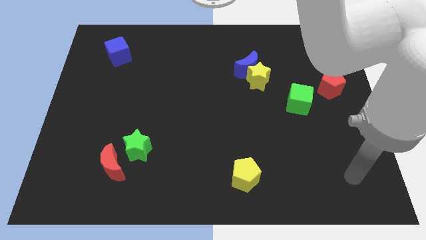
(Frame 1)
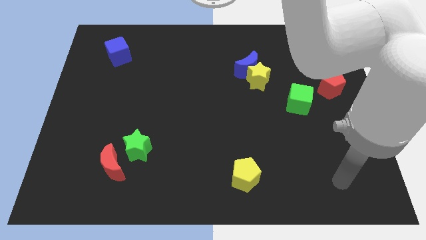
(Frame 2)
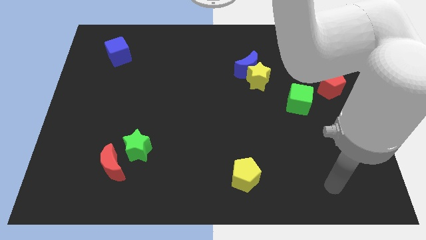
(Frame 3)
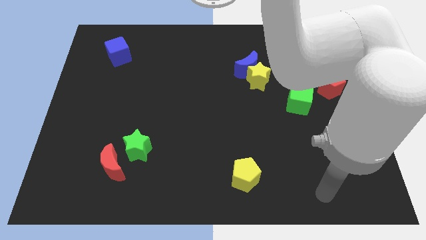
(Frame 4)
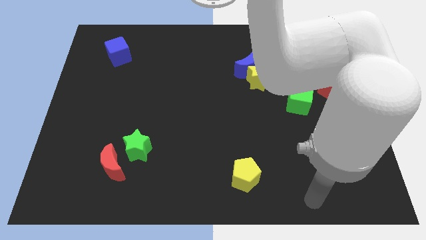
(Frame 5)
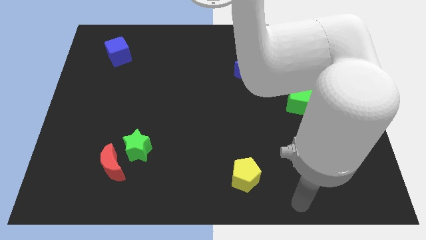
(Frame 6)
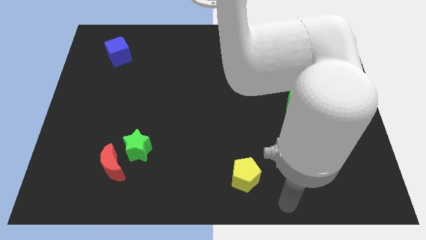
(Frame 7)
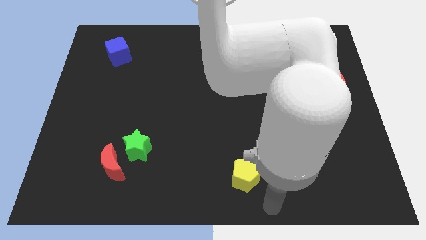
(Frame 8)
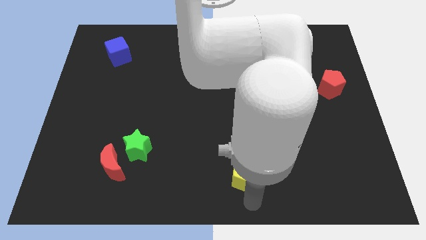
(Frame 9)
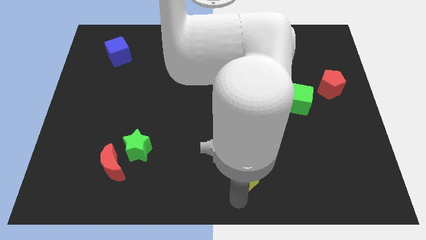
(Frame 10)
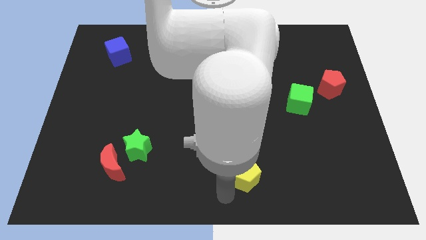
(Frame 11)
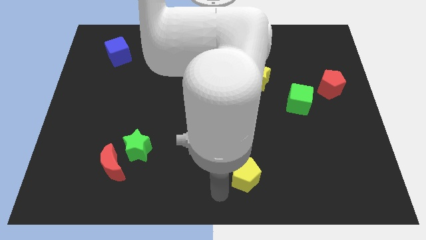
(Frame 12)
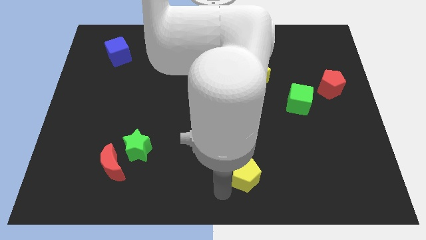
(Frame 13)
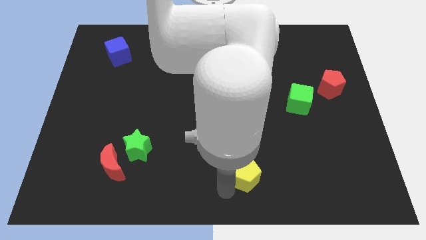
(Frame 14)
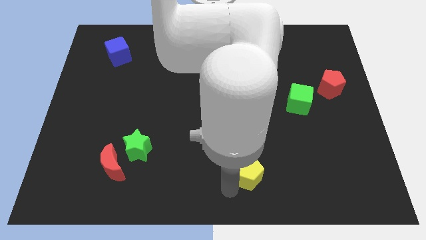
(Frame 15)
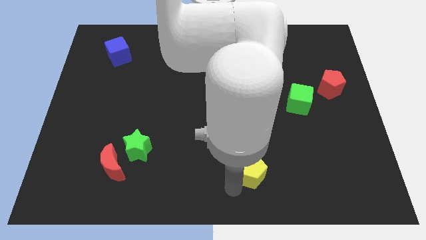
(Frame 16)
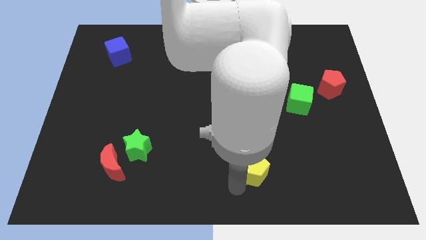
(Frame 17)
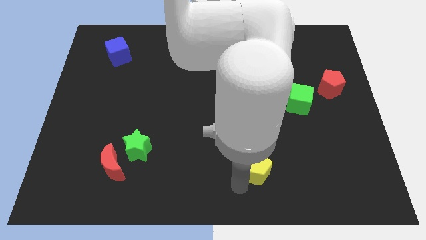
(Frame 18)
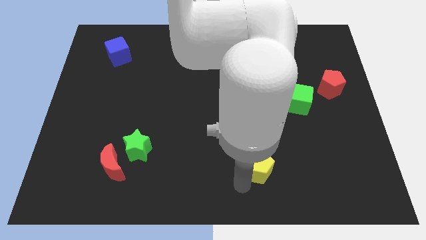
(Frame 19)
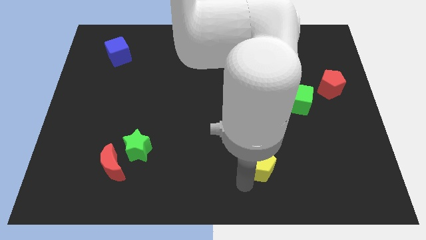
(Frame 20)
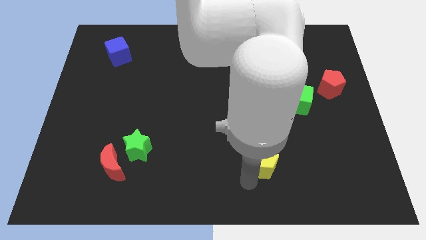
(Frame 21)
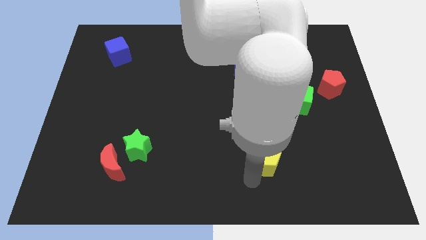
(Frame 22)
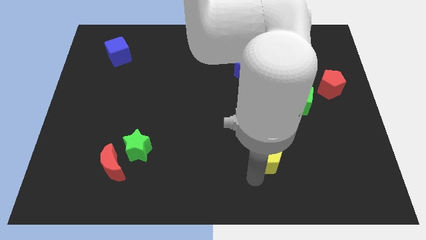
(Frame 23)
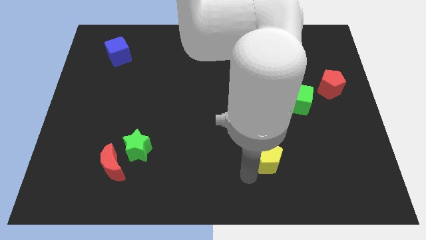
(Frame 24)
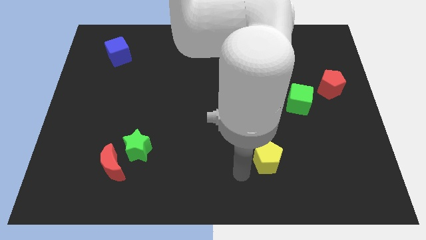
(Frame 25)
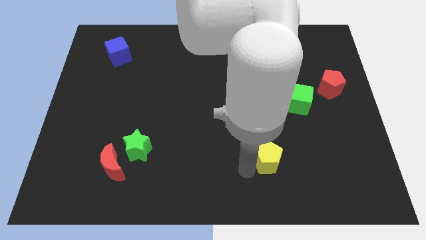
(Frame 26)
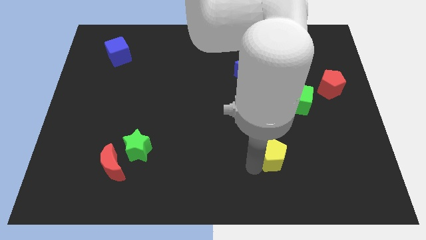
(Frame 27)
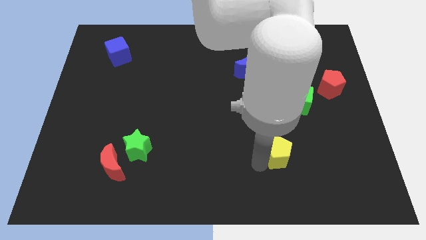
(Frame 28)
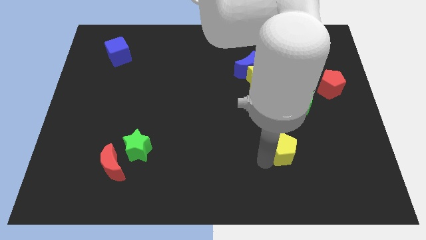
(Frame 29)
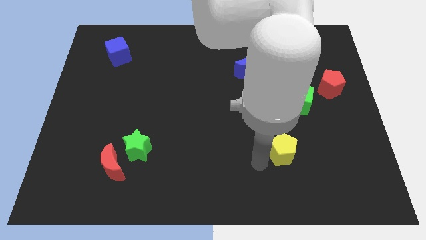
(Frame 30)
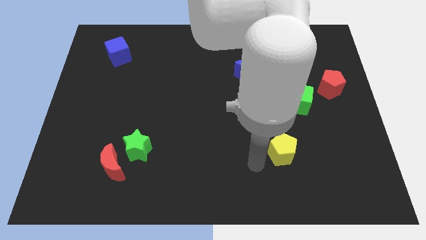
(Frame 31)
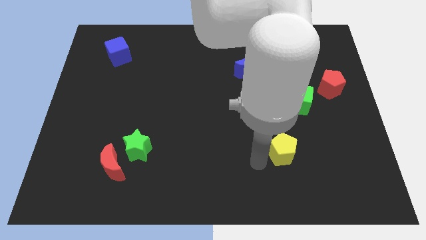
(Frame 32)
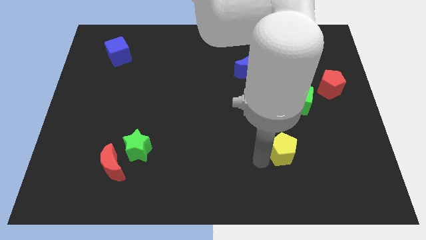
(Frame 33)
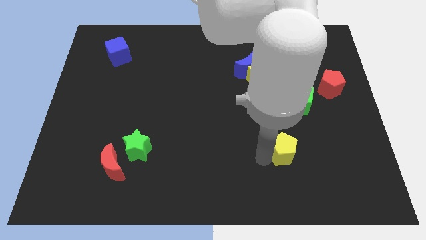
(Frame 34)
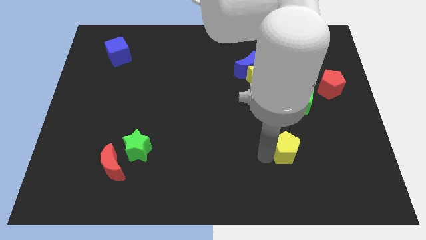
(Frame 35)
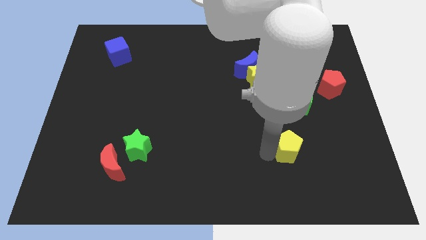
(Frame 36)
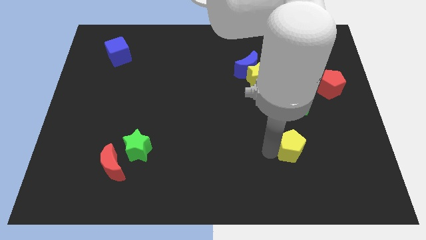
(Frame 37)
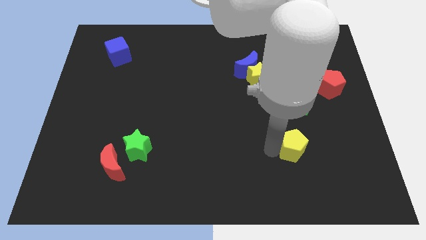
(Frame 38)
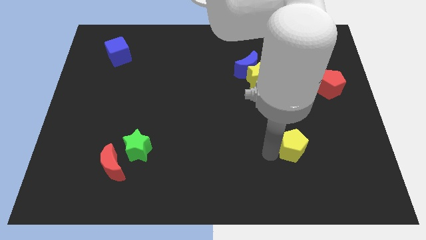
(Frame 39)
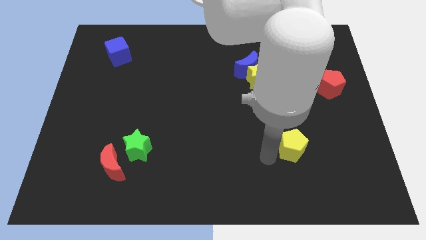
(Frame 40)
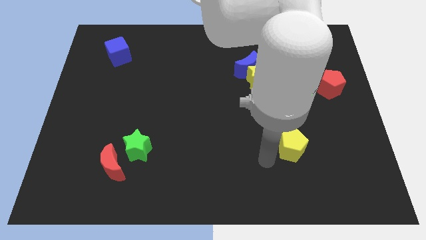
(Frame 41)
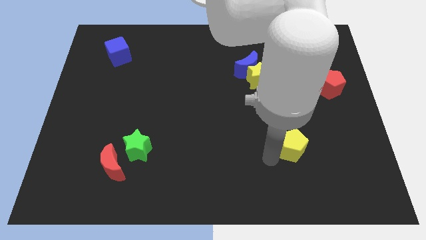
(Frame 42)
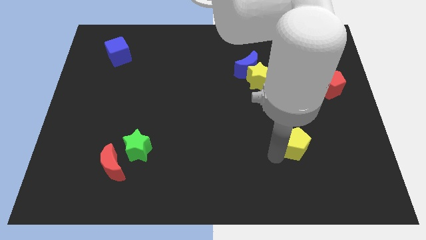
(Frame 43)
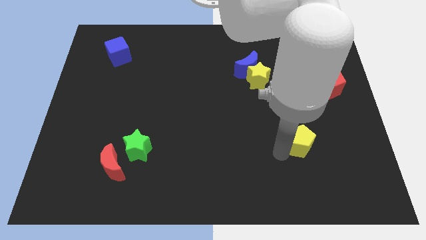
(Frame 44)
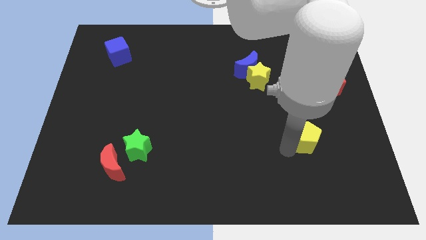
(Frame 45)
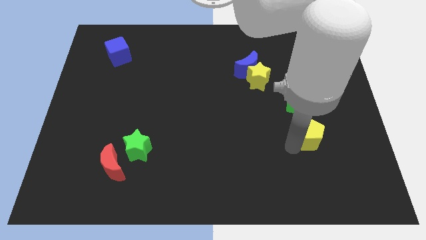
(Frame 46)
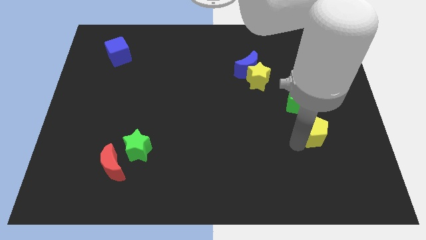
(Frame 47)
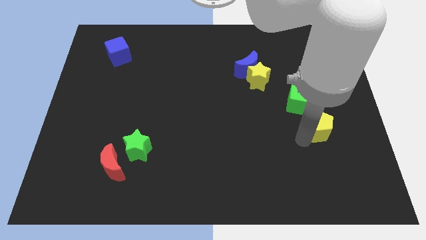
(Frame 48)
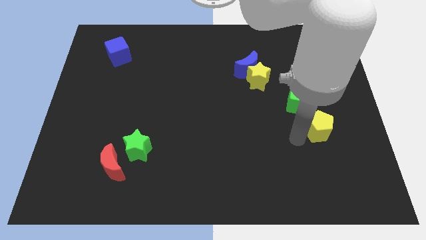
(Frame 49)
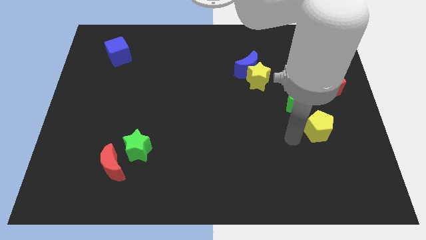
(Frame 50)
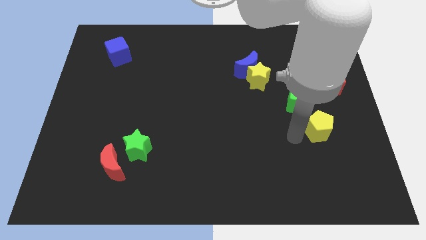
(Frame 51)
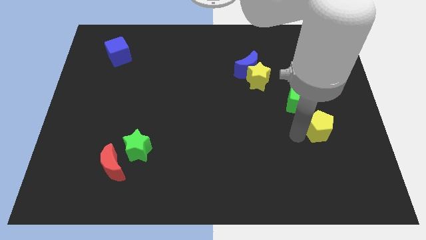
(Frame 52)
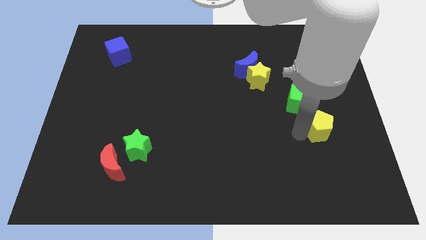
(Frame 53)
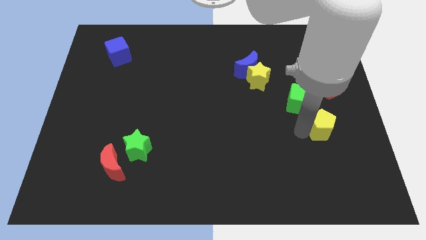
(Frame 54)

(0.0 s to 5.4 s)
put the yellow pentagon to the bottom of the red pentagon

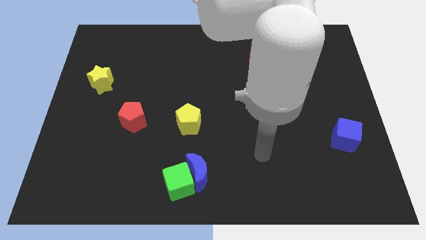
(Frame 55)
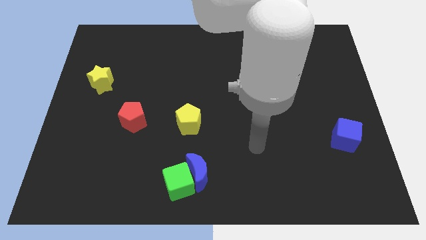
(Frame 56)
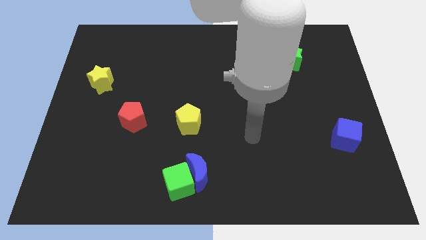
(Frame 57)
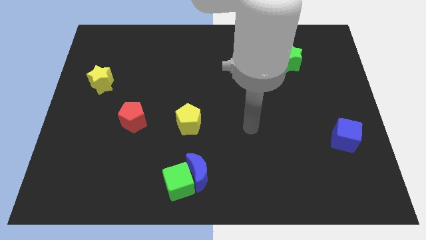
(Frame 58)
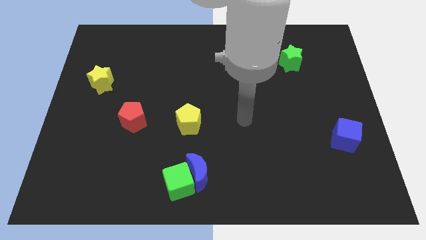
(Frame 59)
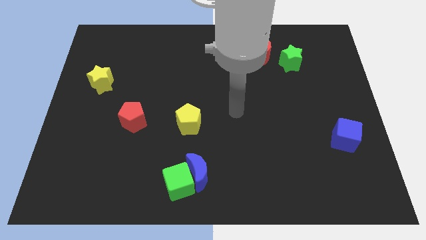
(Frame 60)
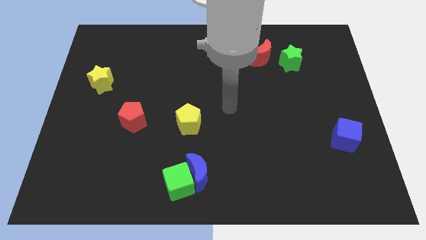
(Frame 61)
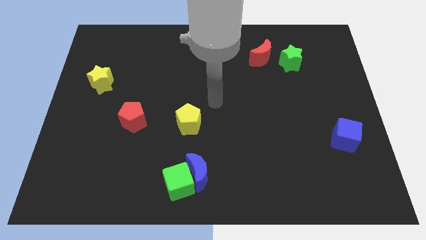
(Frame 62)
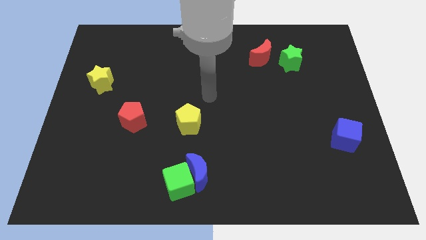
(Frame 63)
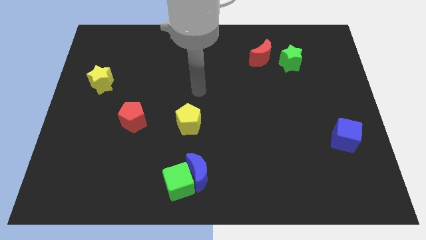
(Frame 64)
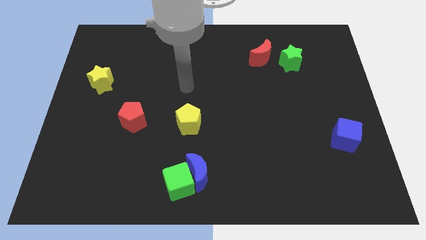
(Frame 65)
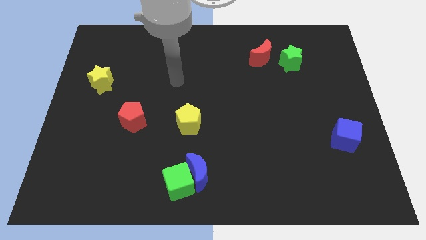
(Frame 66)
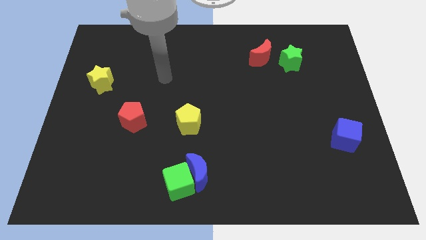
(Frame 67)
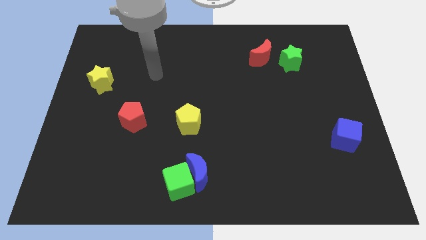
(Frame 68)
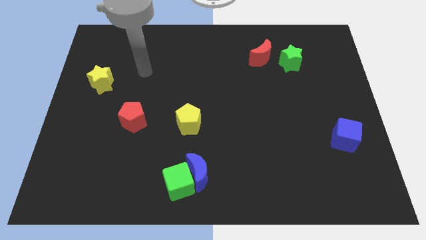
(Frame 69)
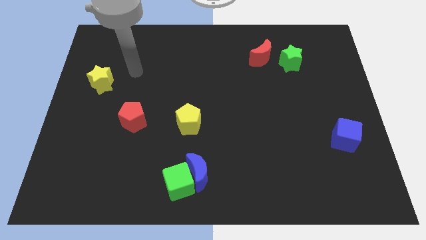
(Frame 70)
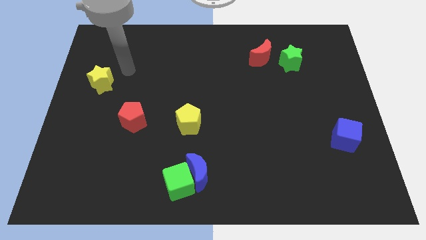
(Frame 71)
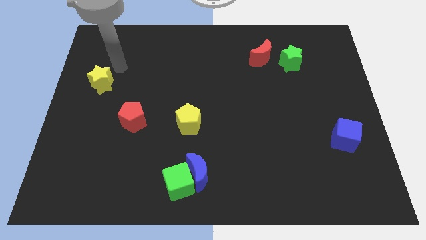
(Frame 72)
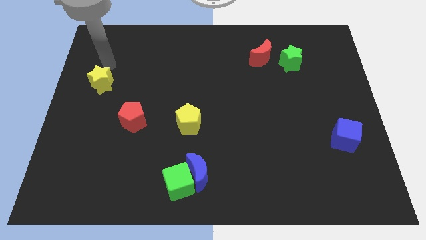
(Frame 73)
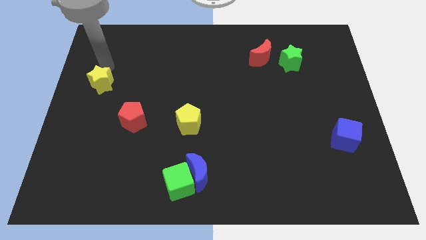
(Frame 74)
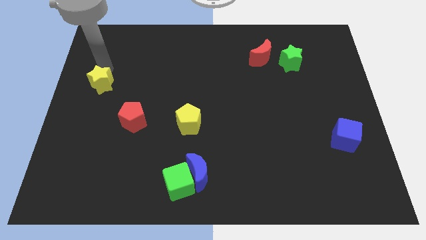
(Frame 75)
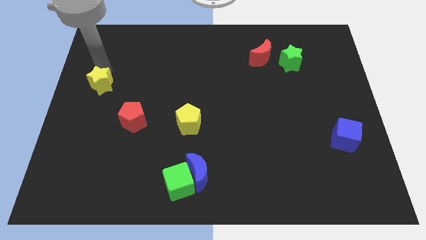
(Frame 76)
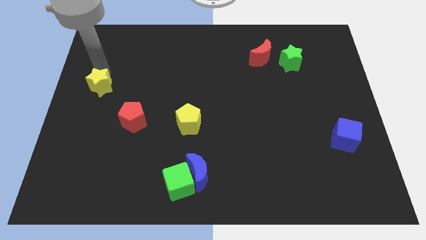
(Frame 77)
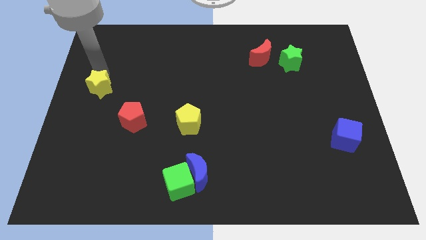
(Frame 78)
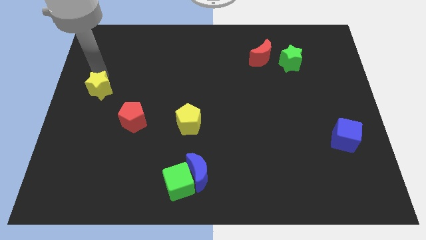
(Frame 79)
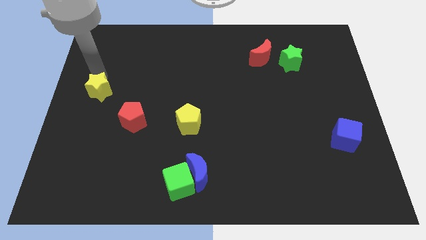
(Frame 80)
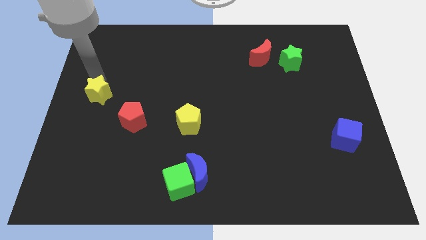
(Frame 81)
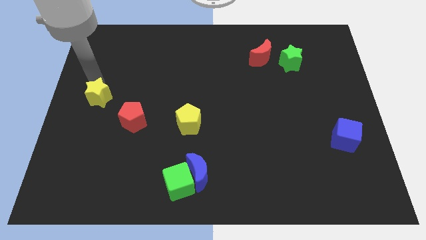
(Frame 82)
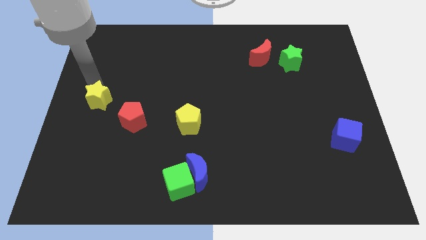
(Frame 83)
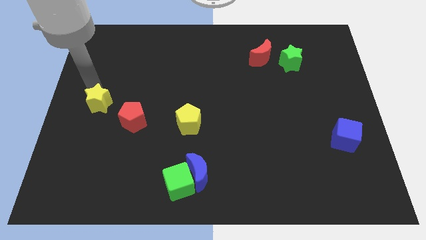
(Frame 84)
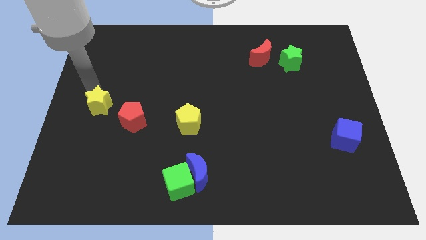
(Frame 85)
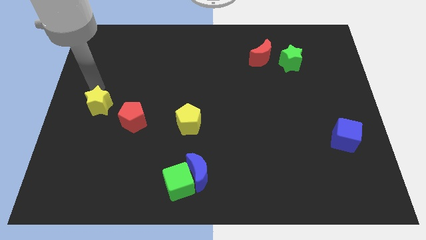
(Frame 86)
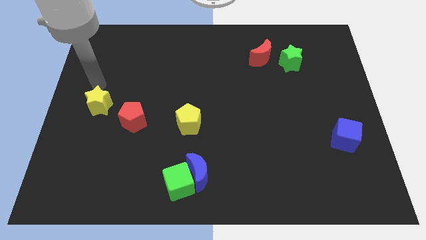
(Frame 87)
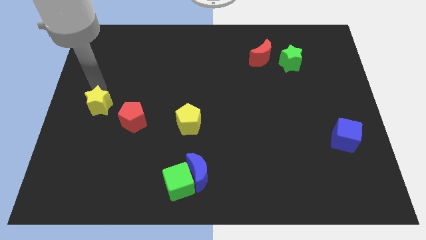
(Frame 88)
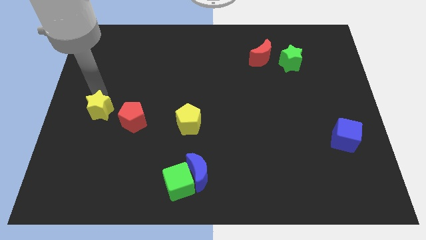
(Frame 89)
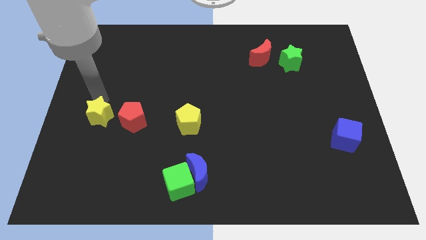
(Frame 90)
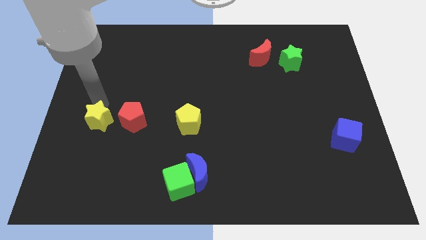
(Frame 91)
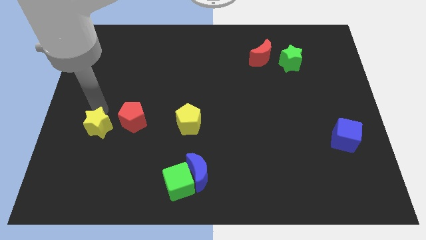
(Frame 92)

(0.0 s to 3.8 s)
slide the yellow star to the bottom left of the red pentagon
